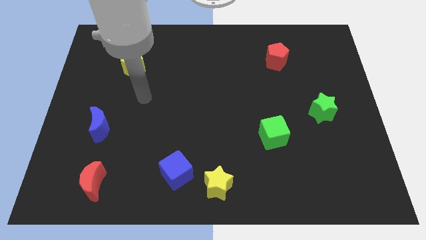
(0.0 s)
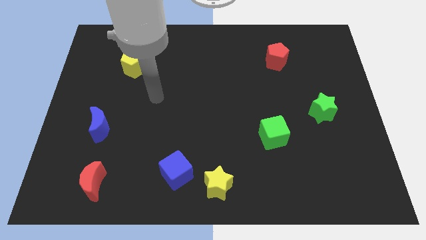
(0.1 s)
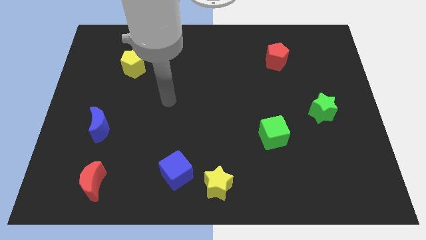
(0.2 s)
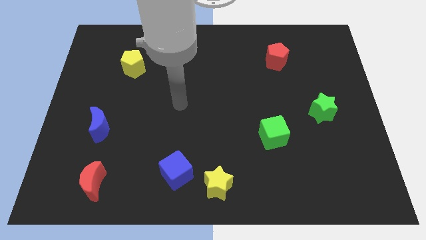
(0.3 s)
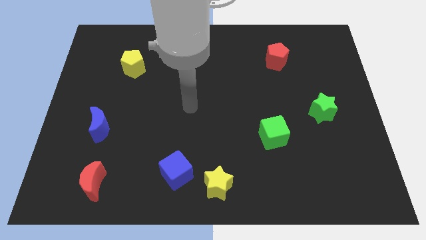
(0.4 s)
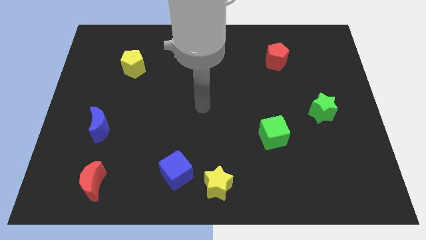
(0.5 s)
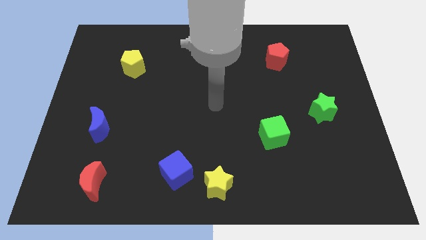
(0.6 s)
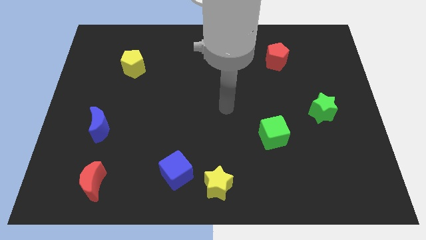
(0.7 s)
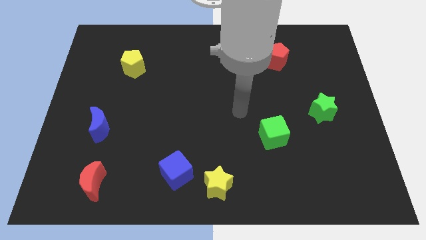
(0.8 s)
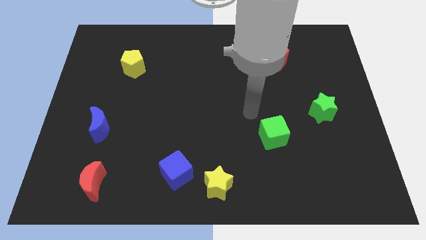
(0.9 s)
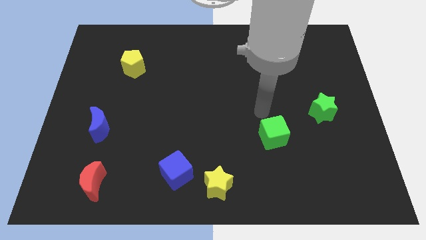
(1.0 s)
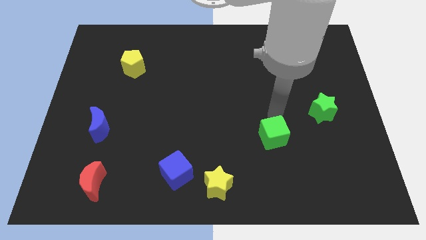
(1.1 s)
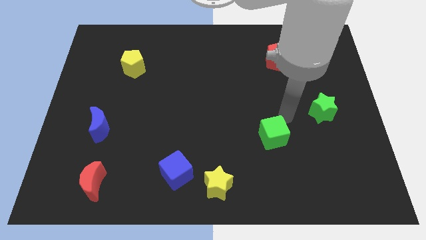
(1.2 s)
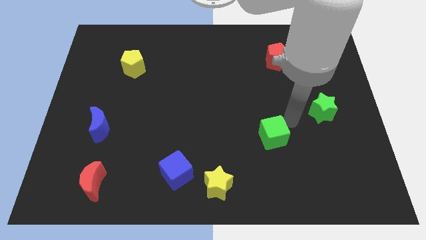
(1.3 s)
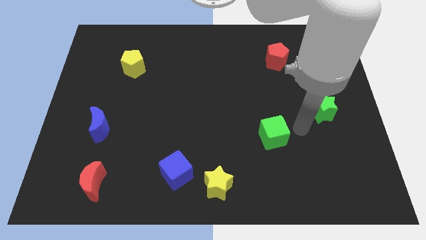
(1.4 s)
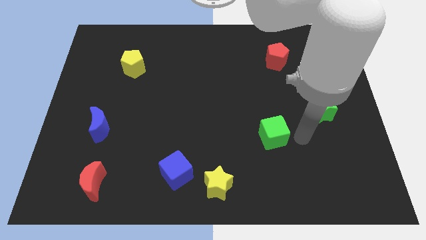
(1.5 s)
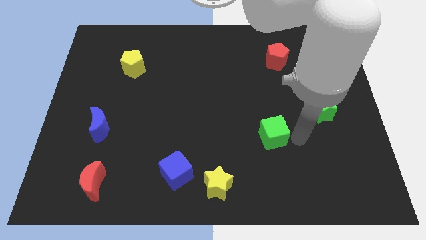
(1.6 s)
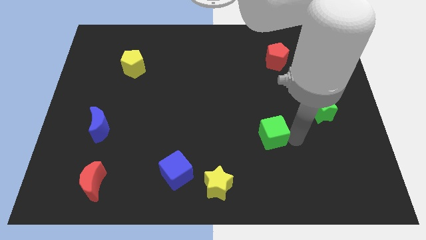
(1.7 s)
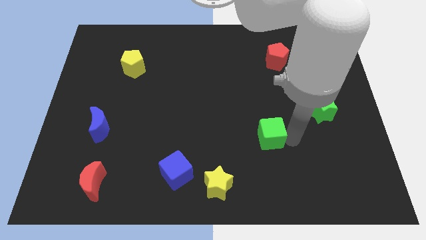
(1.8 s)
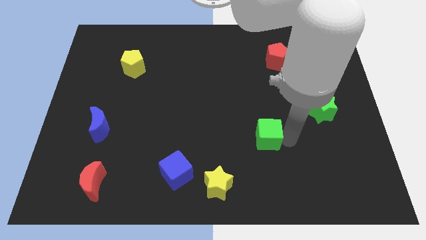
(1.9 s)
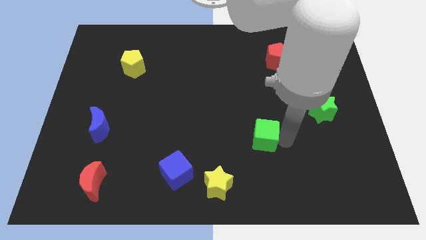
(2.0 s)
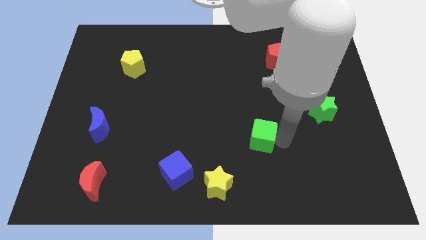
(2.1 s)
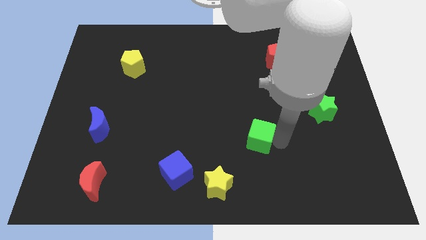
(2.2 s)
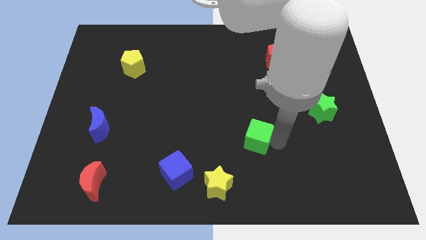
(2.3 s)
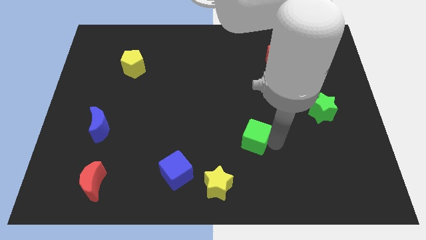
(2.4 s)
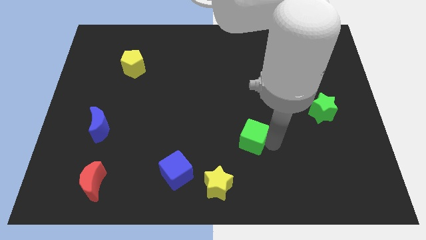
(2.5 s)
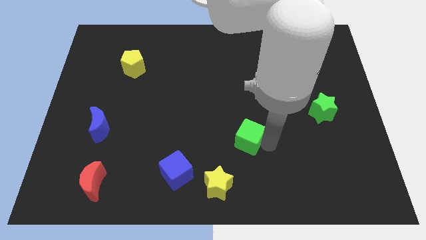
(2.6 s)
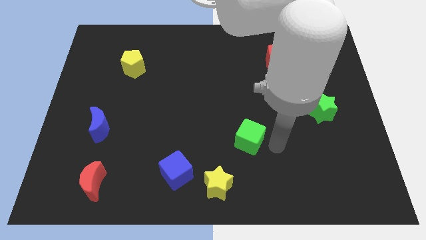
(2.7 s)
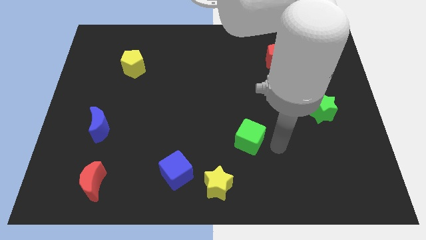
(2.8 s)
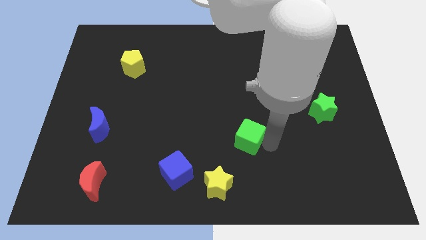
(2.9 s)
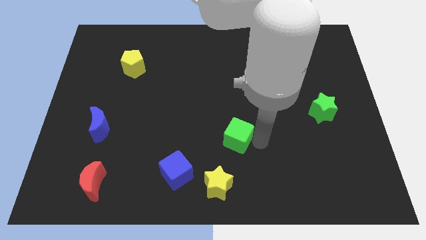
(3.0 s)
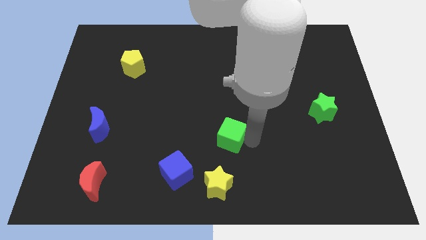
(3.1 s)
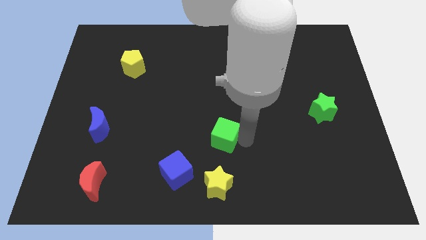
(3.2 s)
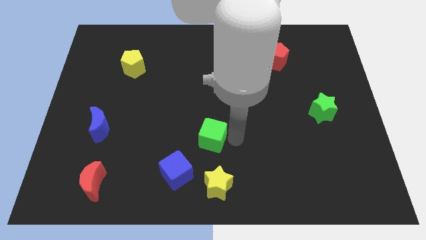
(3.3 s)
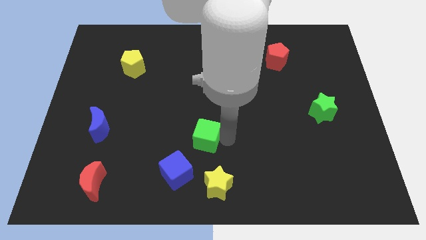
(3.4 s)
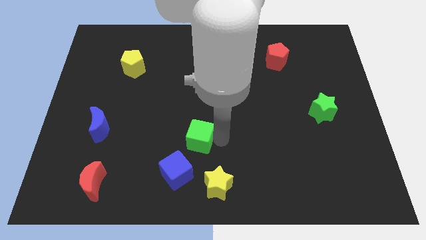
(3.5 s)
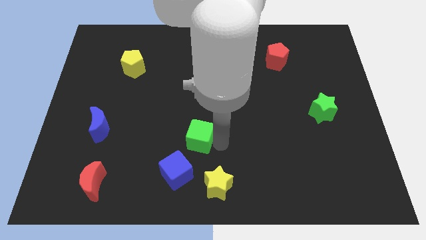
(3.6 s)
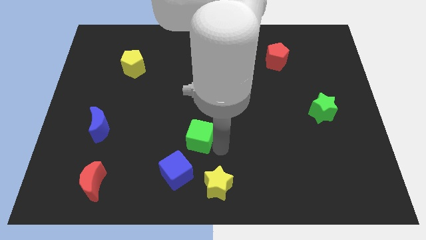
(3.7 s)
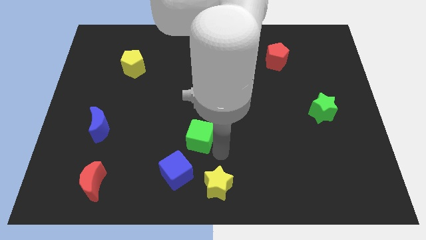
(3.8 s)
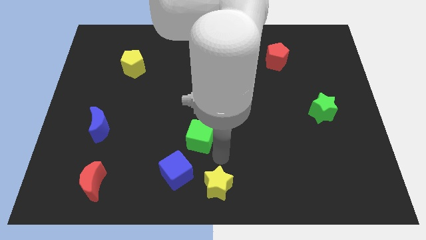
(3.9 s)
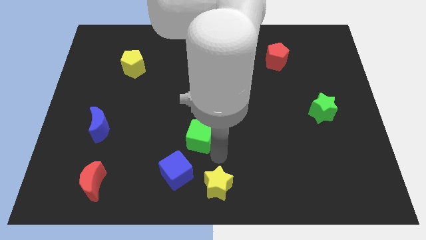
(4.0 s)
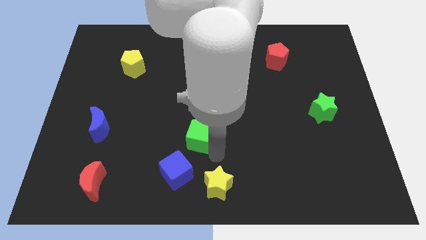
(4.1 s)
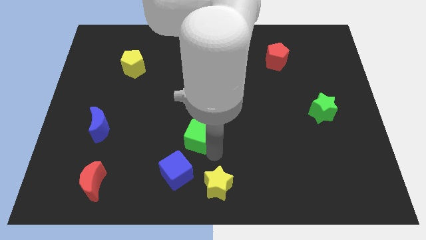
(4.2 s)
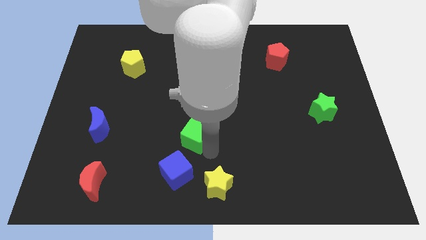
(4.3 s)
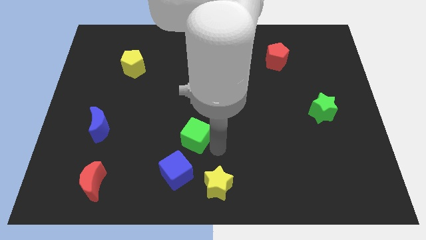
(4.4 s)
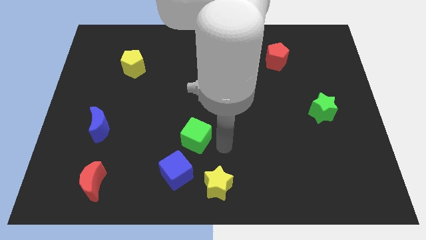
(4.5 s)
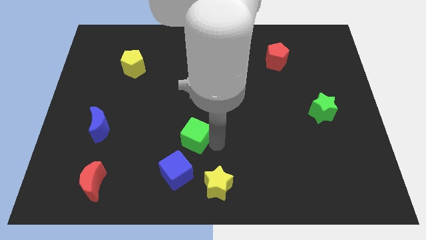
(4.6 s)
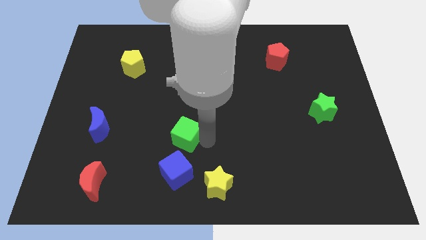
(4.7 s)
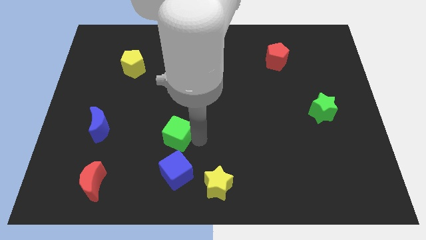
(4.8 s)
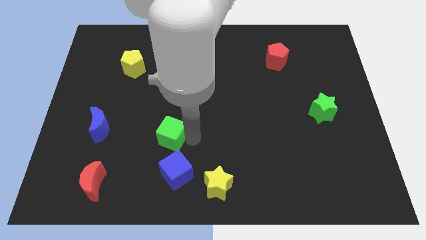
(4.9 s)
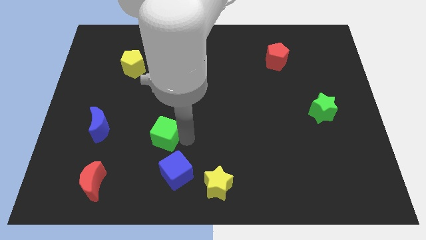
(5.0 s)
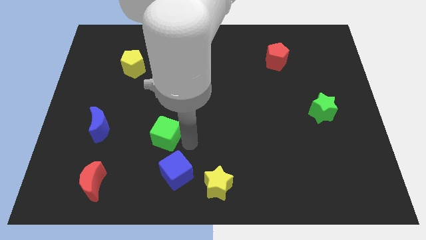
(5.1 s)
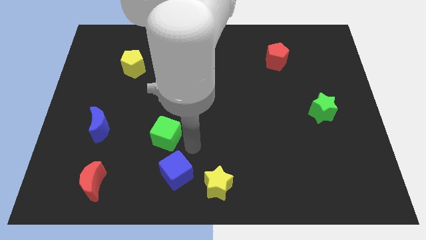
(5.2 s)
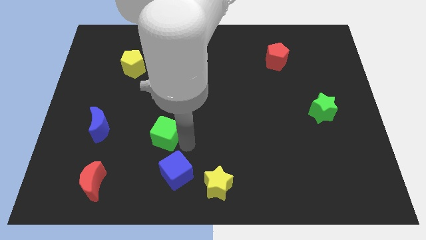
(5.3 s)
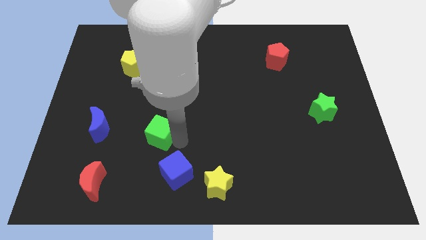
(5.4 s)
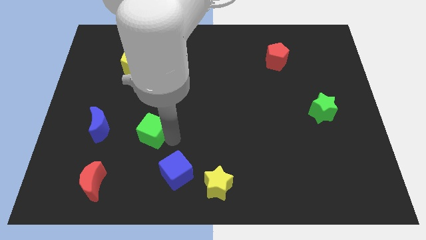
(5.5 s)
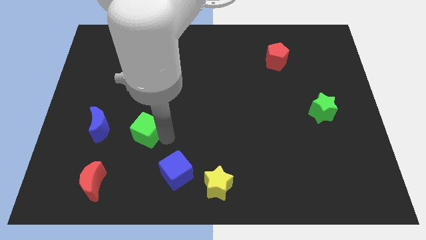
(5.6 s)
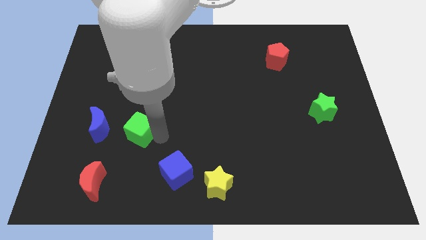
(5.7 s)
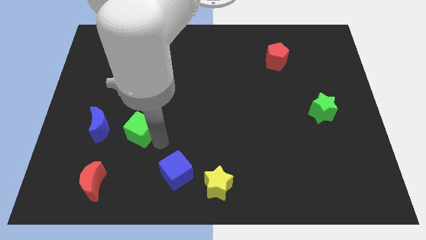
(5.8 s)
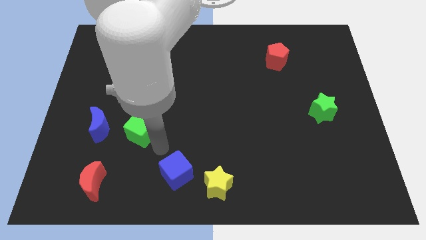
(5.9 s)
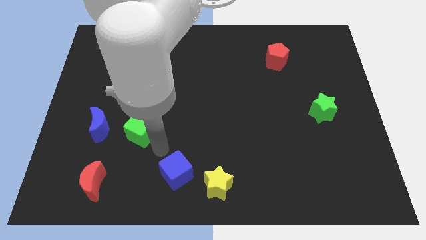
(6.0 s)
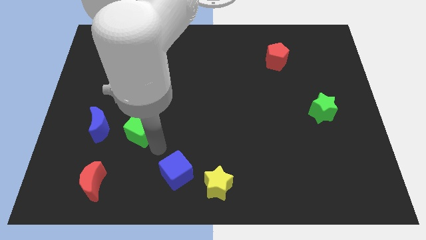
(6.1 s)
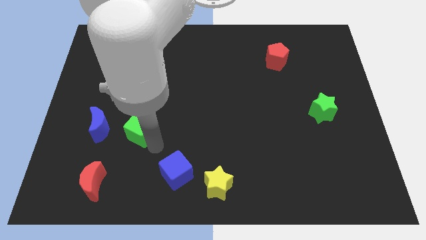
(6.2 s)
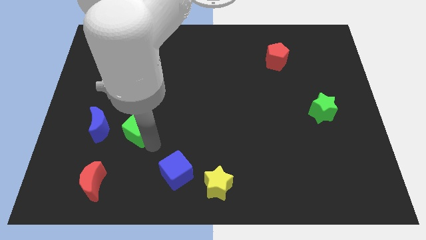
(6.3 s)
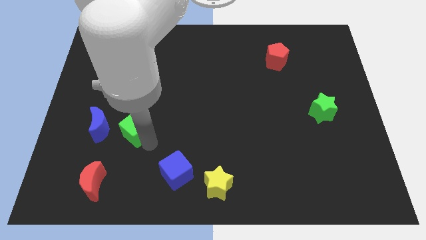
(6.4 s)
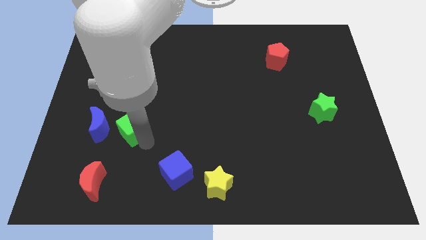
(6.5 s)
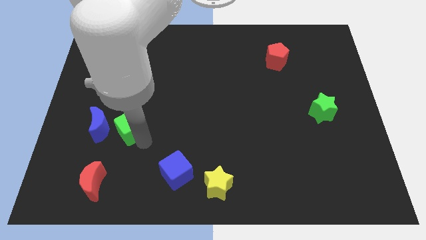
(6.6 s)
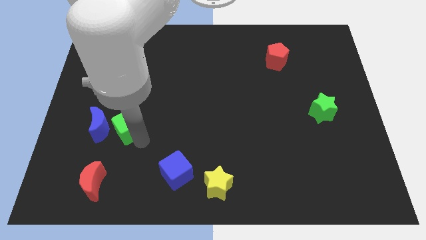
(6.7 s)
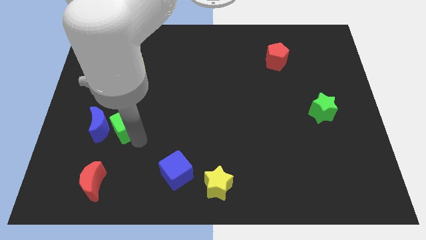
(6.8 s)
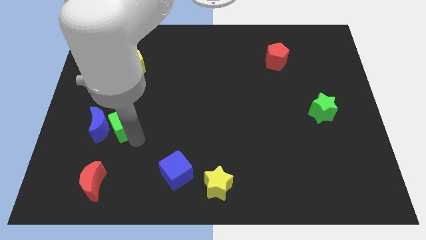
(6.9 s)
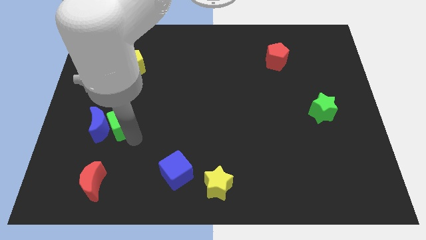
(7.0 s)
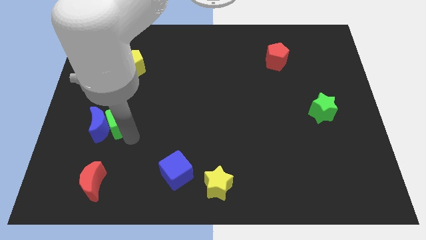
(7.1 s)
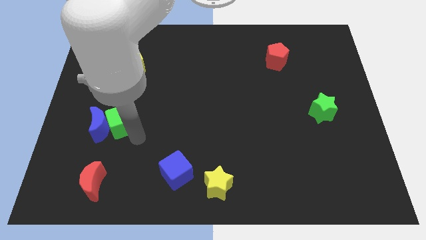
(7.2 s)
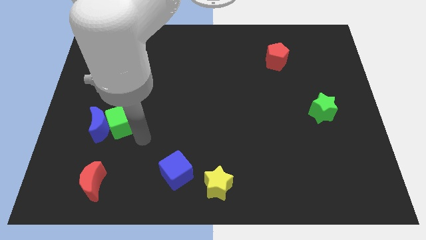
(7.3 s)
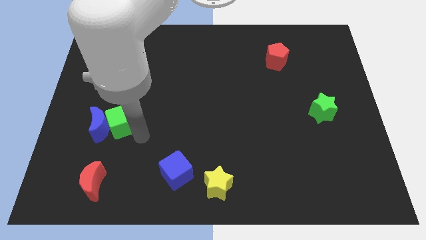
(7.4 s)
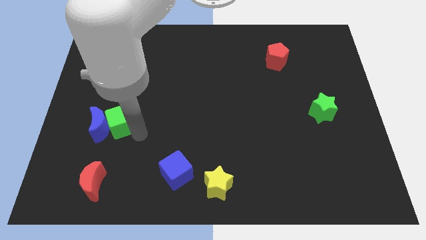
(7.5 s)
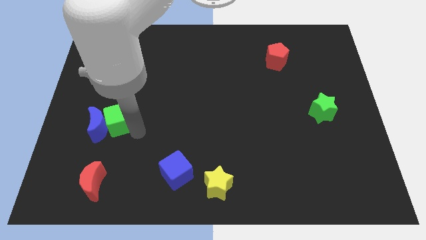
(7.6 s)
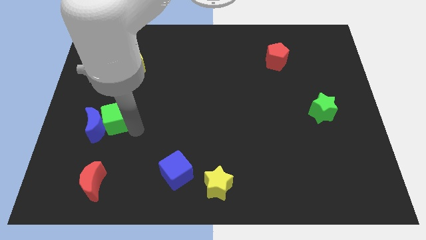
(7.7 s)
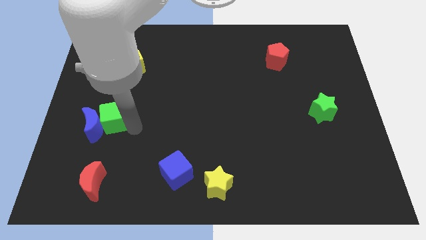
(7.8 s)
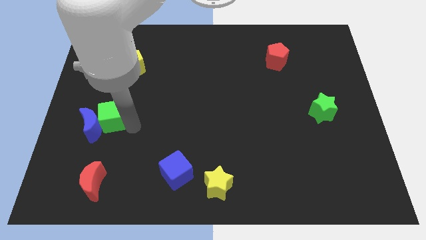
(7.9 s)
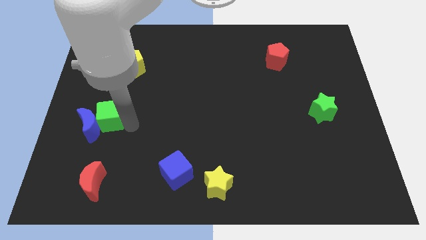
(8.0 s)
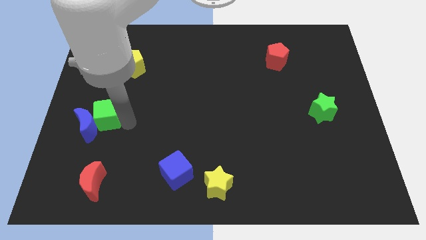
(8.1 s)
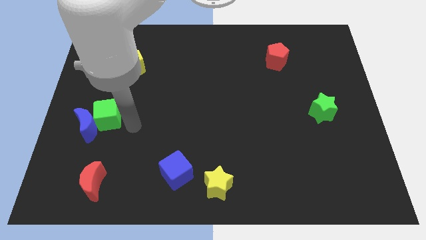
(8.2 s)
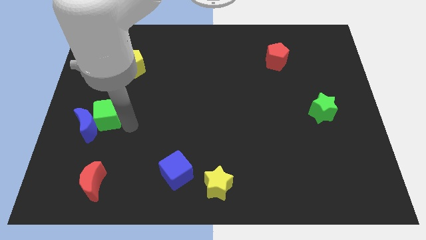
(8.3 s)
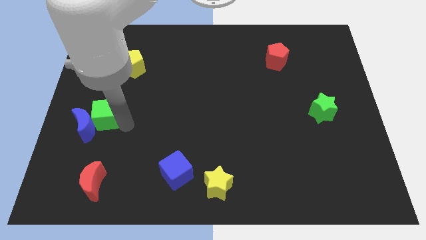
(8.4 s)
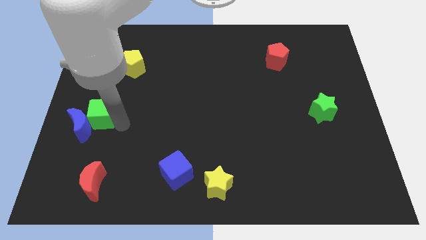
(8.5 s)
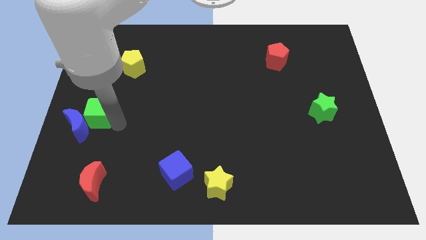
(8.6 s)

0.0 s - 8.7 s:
move the green cube to the center left
